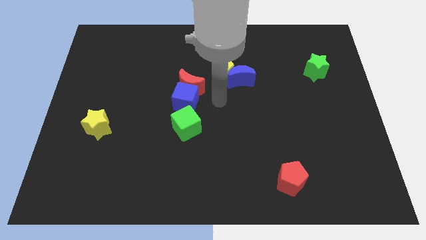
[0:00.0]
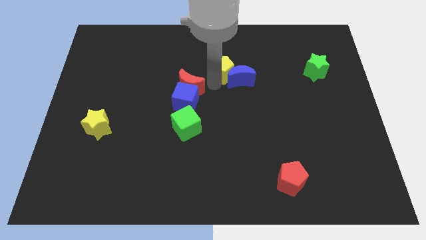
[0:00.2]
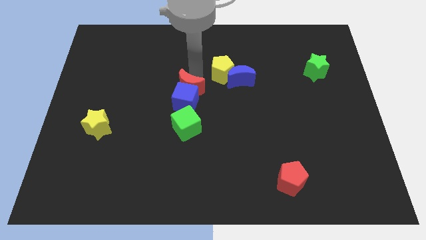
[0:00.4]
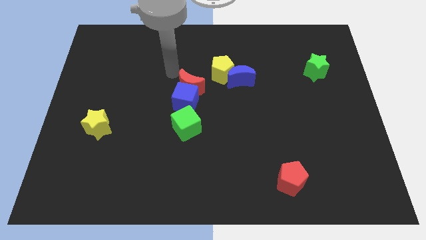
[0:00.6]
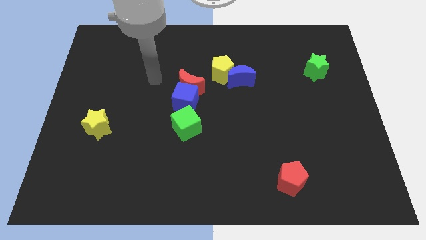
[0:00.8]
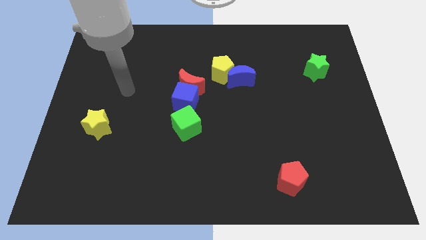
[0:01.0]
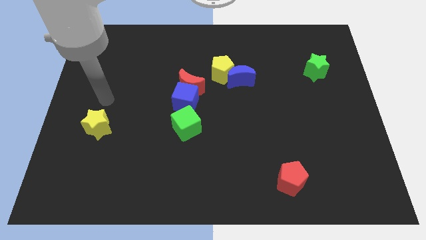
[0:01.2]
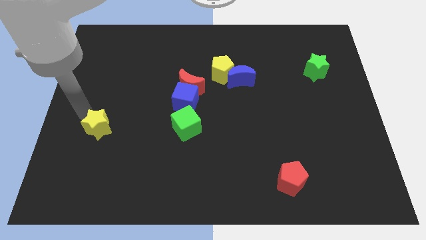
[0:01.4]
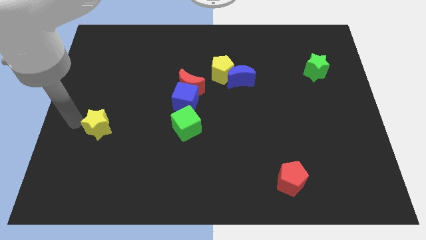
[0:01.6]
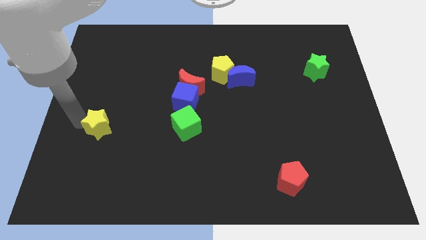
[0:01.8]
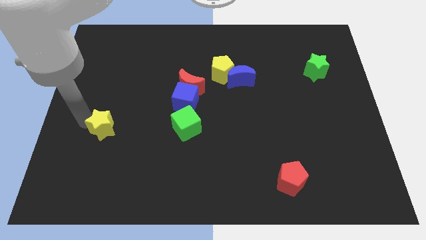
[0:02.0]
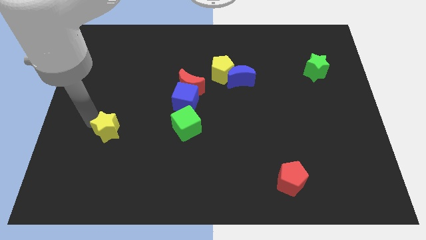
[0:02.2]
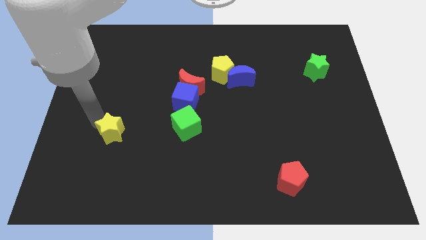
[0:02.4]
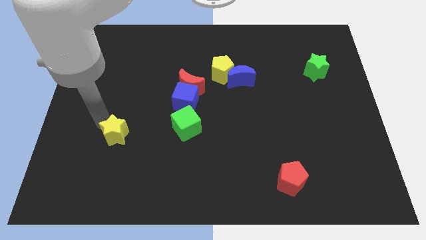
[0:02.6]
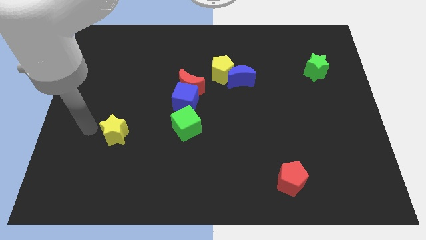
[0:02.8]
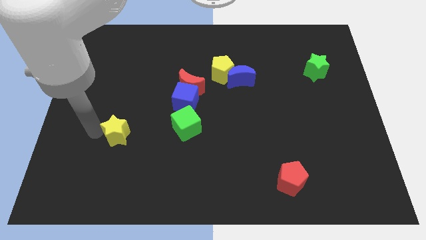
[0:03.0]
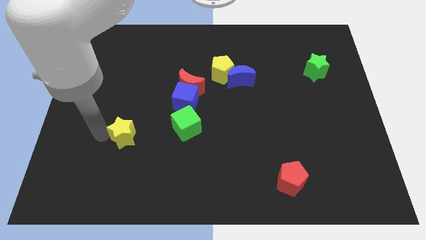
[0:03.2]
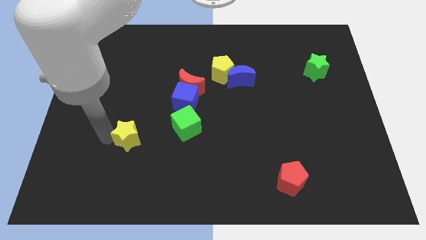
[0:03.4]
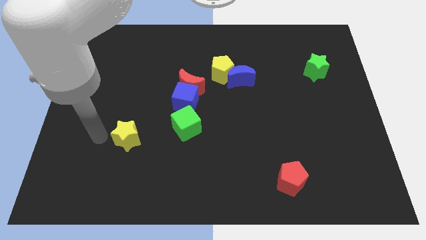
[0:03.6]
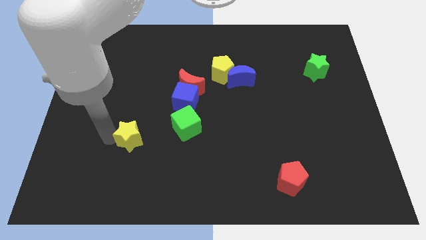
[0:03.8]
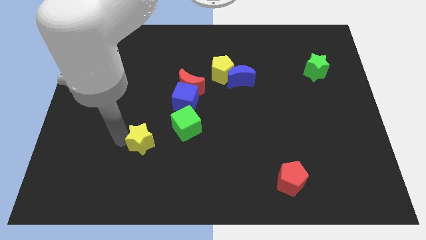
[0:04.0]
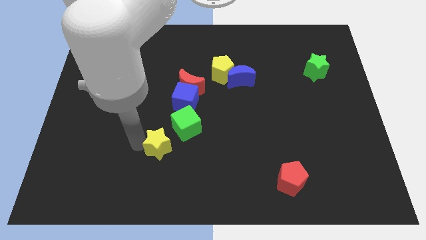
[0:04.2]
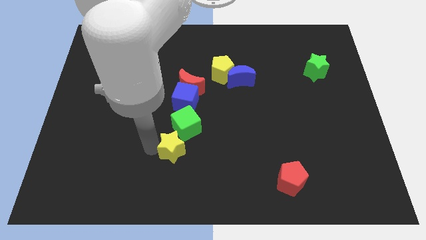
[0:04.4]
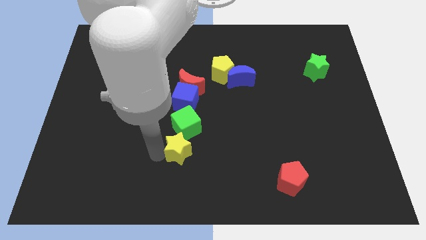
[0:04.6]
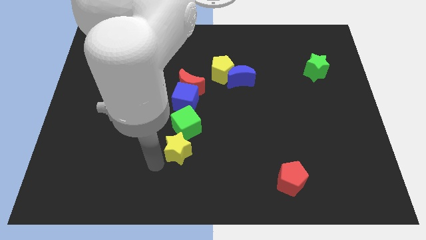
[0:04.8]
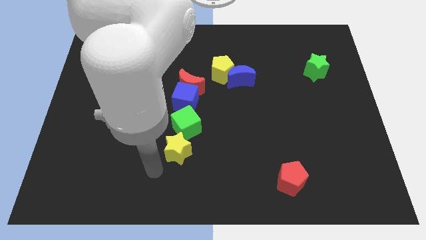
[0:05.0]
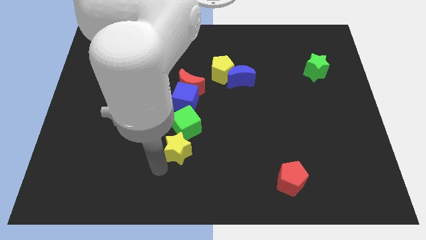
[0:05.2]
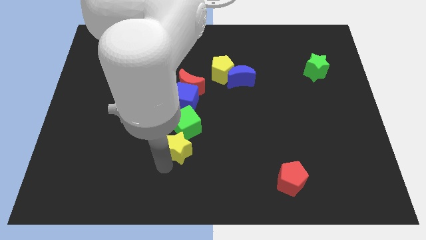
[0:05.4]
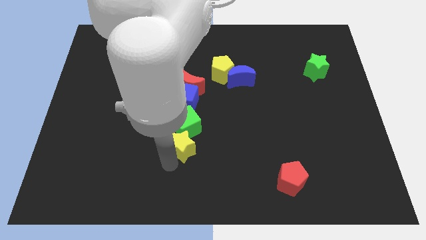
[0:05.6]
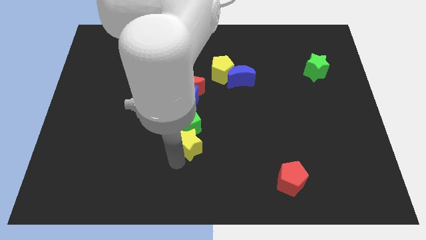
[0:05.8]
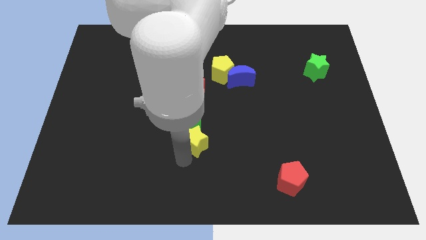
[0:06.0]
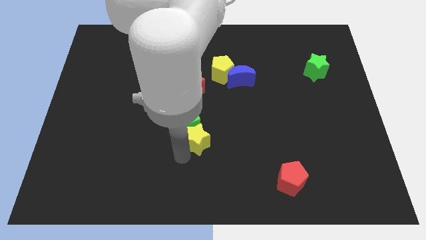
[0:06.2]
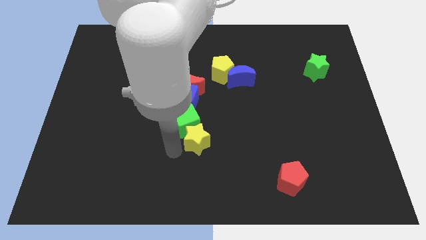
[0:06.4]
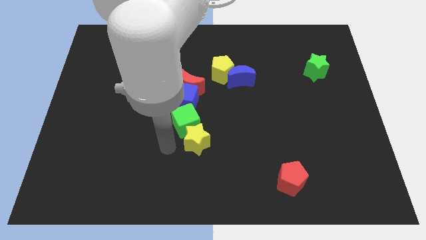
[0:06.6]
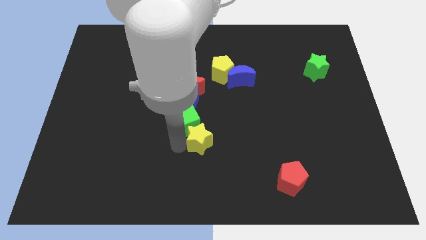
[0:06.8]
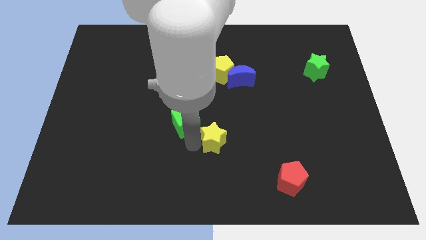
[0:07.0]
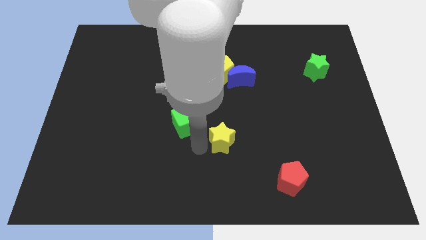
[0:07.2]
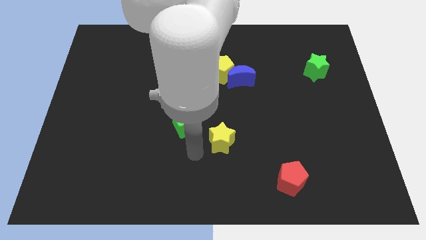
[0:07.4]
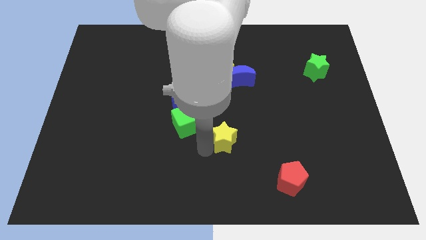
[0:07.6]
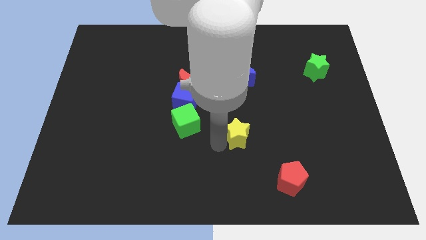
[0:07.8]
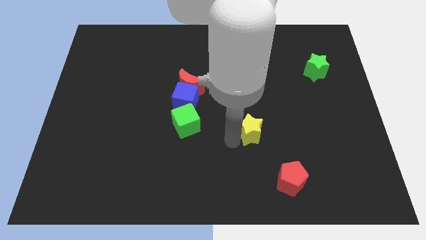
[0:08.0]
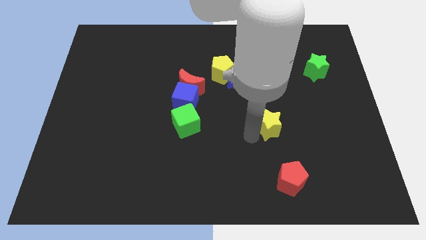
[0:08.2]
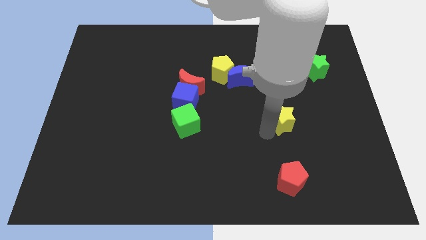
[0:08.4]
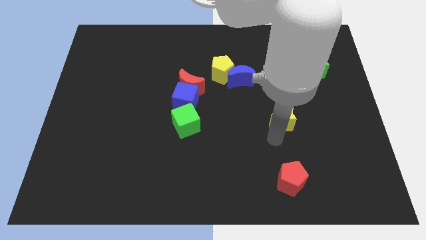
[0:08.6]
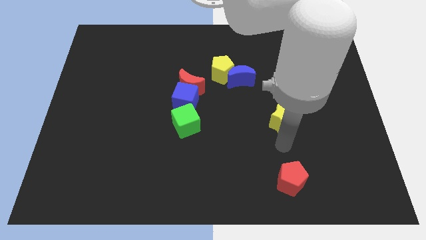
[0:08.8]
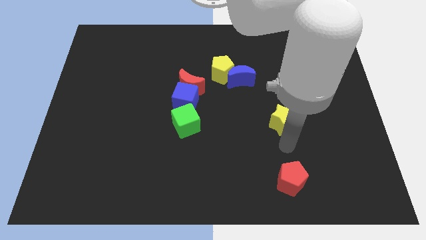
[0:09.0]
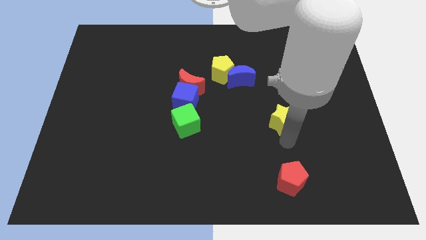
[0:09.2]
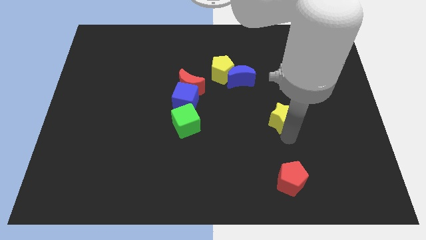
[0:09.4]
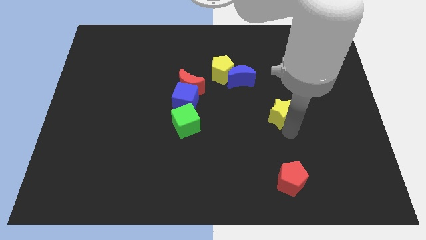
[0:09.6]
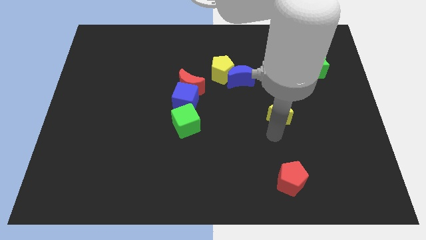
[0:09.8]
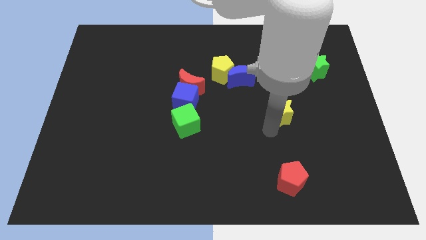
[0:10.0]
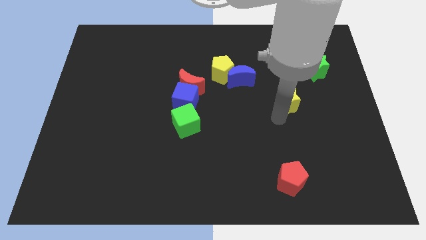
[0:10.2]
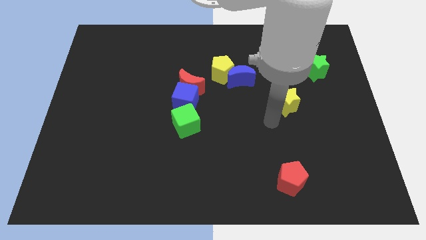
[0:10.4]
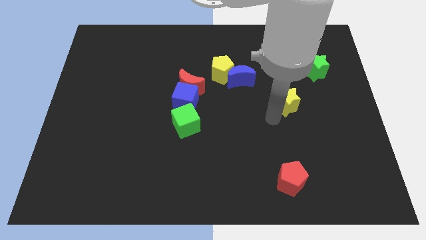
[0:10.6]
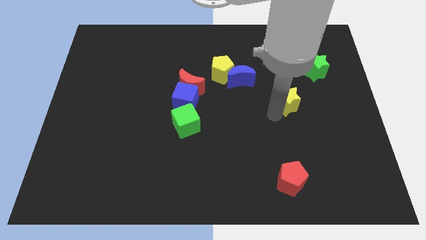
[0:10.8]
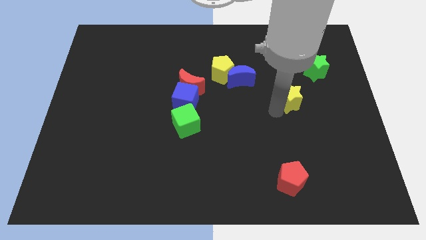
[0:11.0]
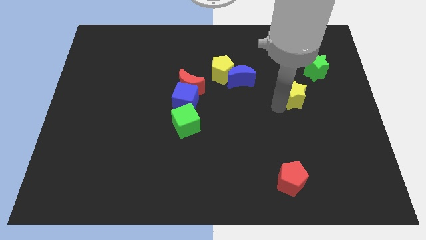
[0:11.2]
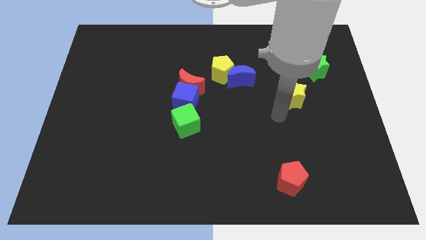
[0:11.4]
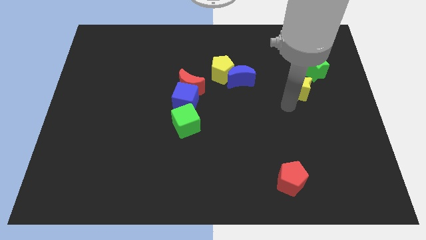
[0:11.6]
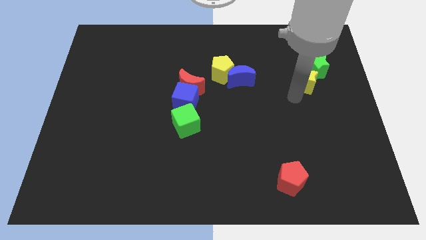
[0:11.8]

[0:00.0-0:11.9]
put the yellow star close to the green star

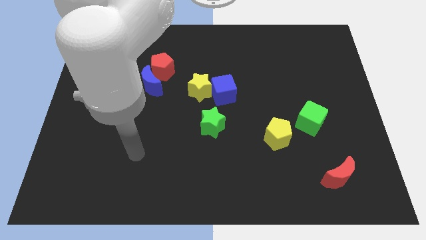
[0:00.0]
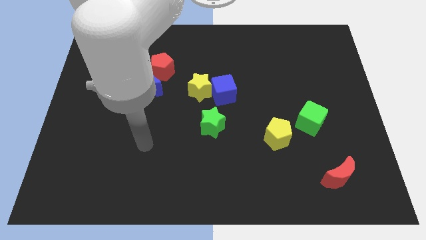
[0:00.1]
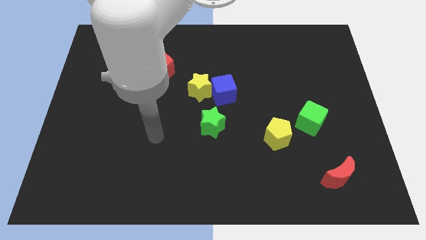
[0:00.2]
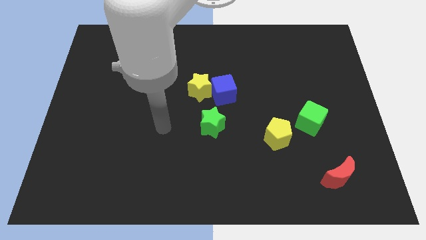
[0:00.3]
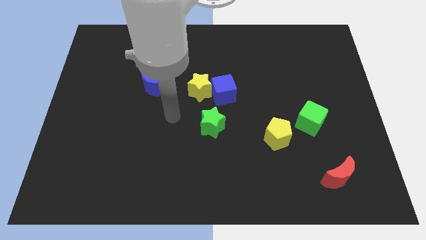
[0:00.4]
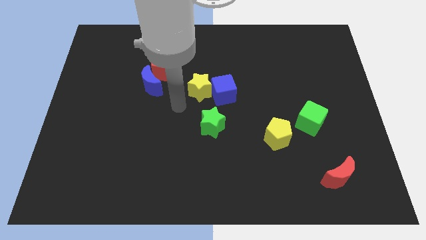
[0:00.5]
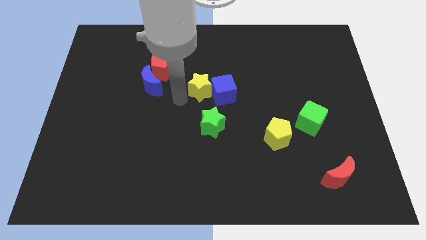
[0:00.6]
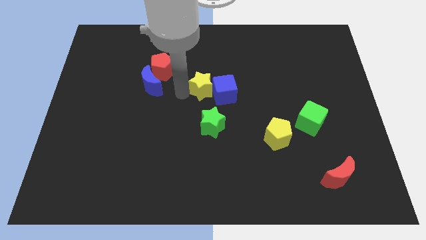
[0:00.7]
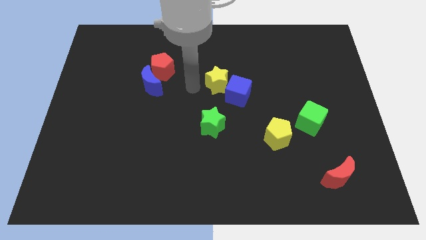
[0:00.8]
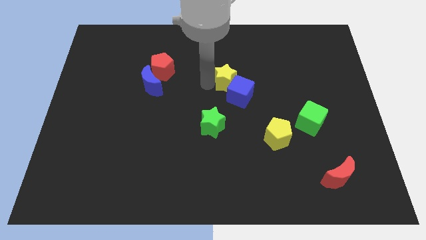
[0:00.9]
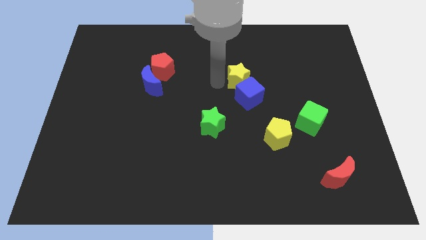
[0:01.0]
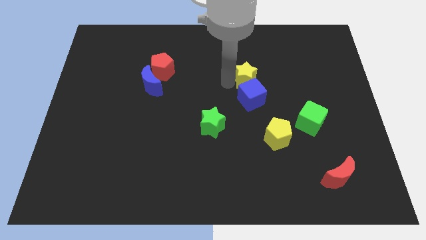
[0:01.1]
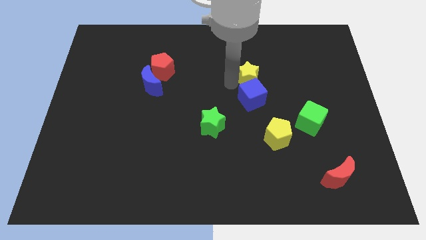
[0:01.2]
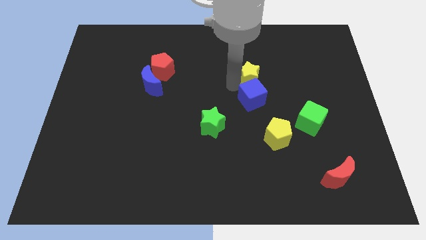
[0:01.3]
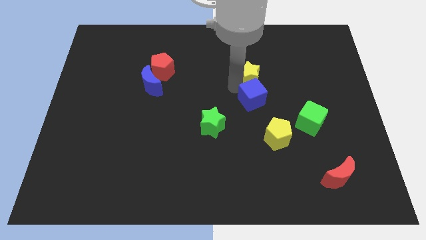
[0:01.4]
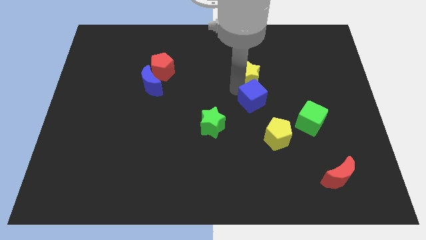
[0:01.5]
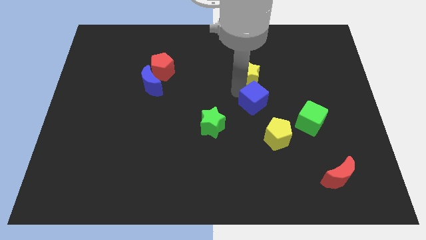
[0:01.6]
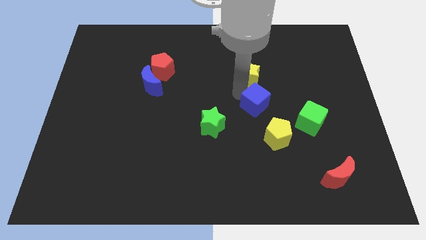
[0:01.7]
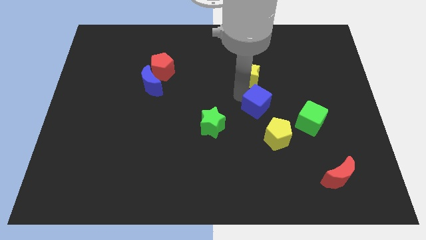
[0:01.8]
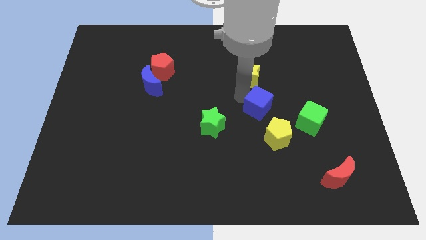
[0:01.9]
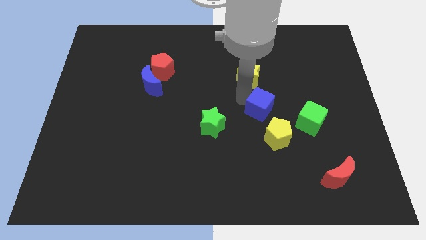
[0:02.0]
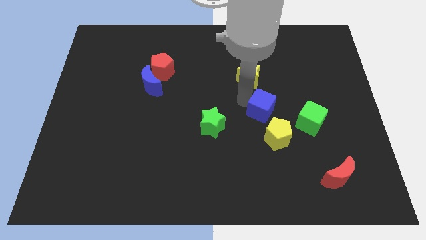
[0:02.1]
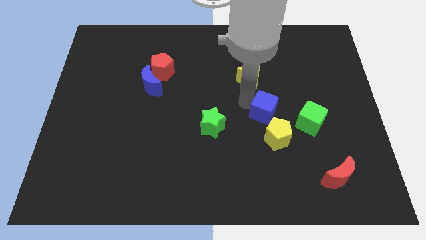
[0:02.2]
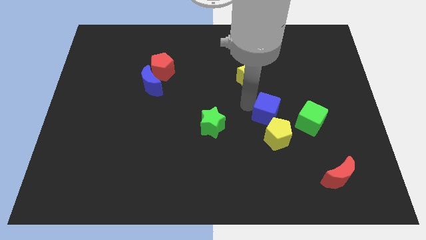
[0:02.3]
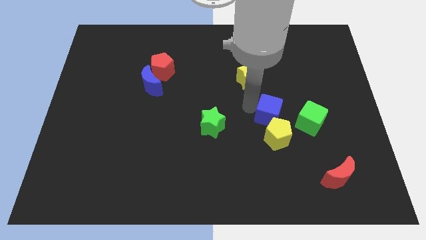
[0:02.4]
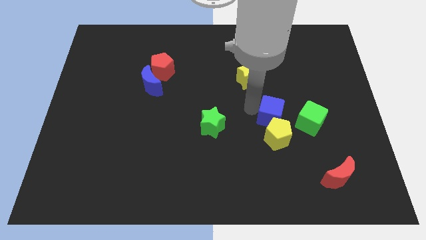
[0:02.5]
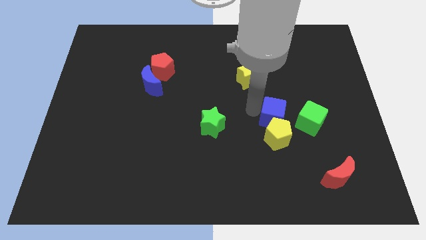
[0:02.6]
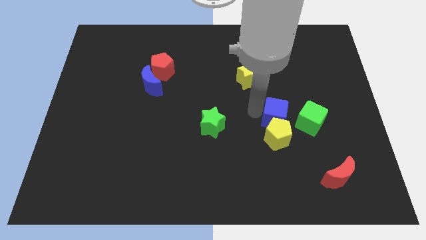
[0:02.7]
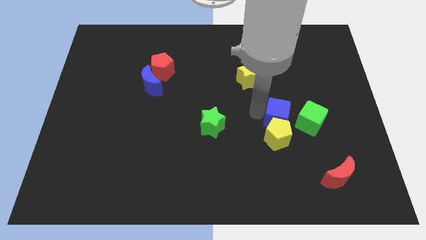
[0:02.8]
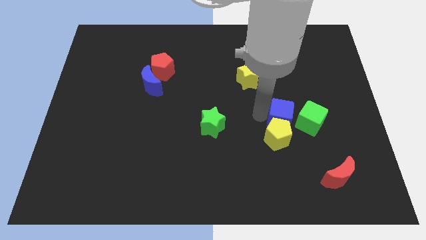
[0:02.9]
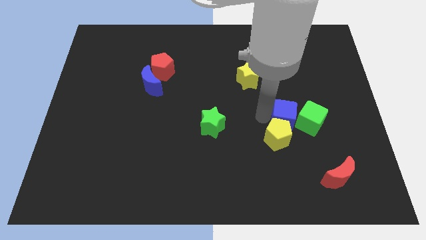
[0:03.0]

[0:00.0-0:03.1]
push the blue cube close to the green cube
